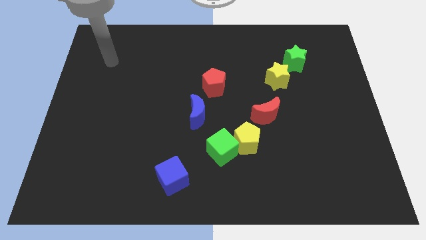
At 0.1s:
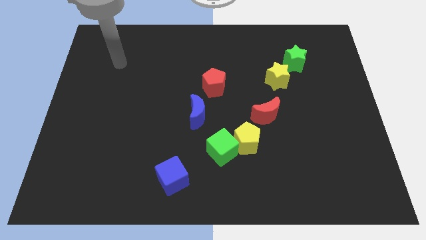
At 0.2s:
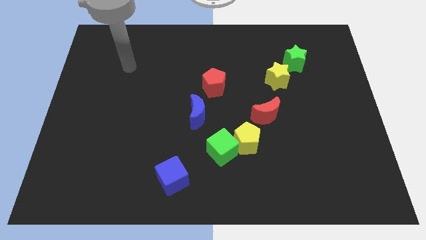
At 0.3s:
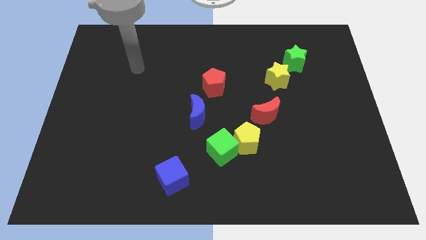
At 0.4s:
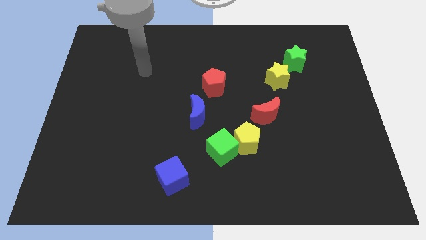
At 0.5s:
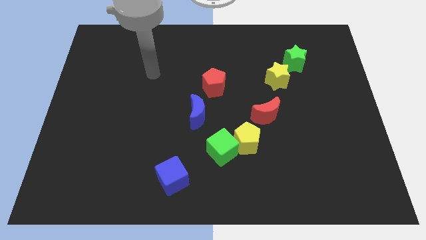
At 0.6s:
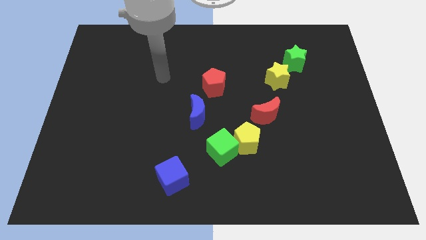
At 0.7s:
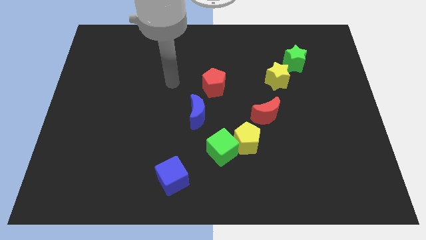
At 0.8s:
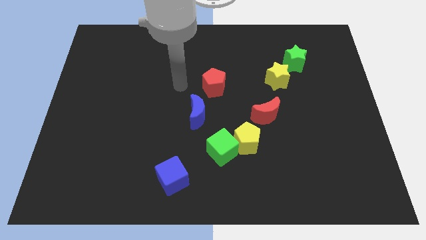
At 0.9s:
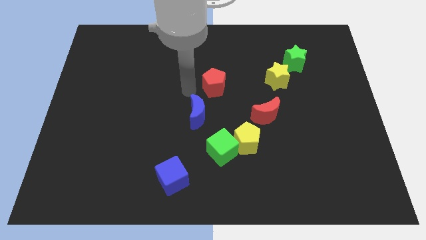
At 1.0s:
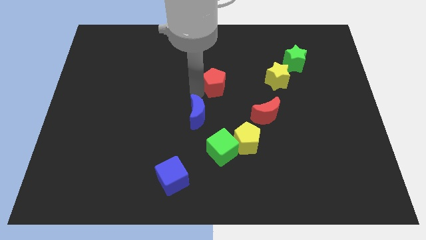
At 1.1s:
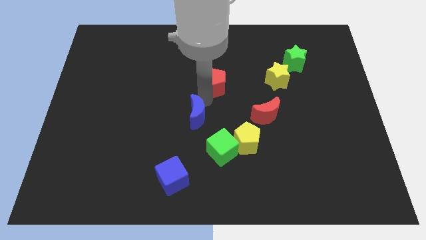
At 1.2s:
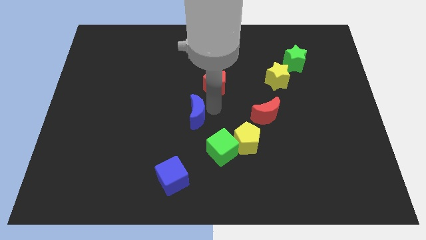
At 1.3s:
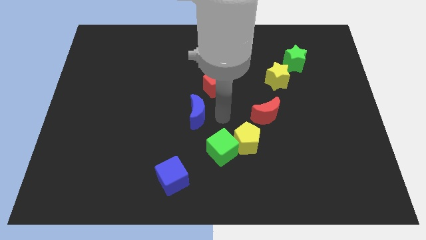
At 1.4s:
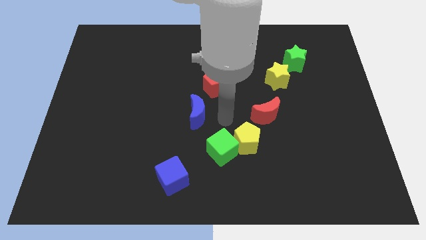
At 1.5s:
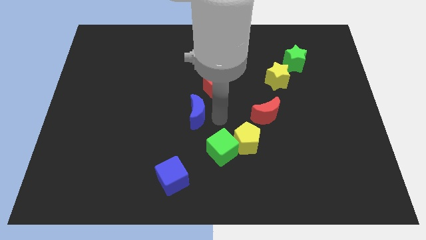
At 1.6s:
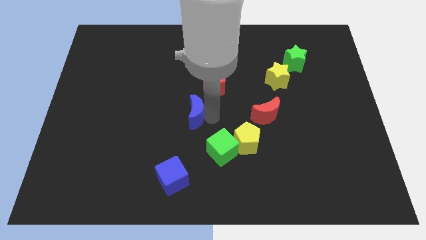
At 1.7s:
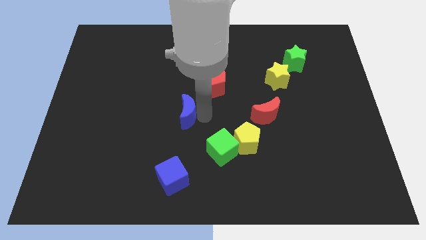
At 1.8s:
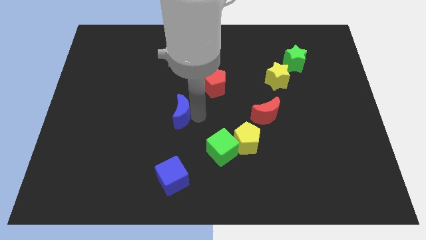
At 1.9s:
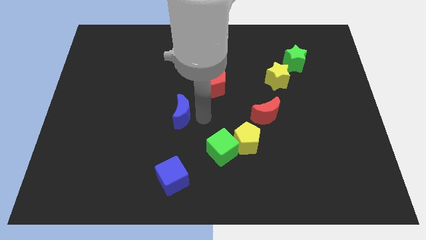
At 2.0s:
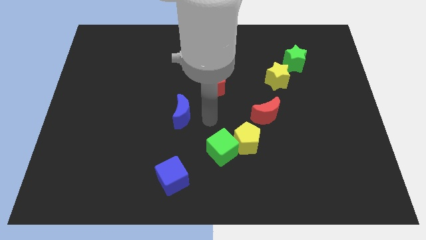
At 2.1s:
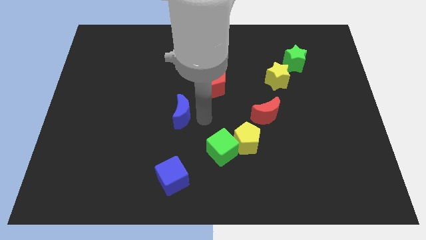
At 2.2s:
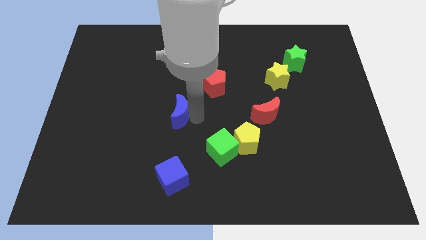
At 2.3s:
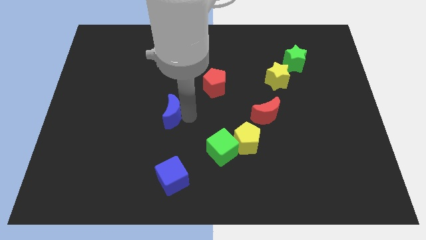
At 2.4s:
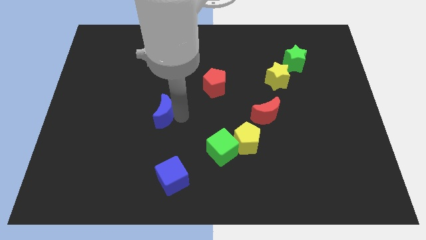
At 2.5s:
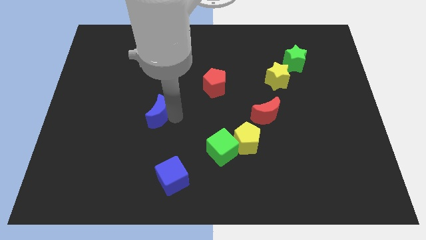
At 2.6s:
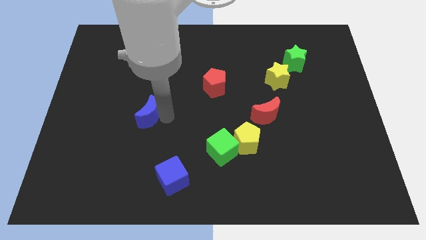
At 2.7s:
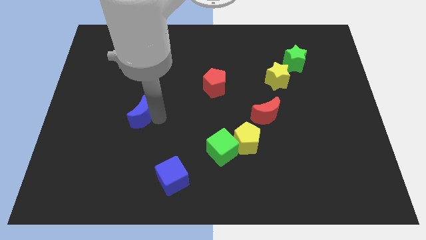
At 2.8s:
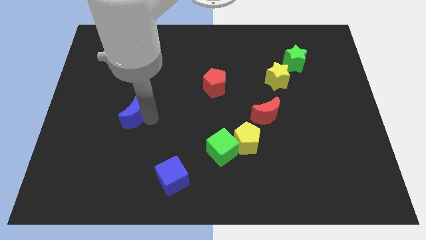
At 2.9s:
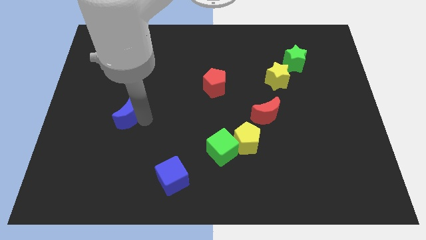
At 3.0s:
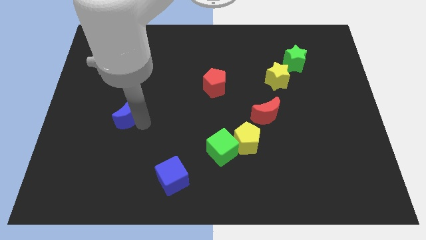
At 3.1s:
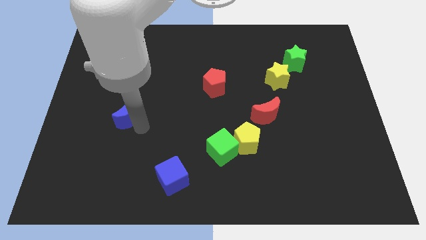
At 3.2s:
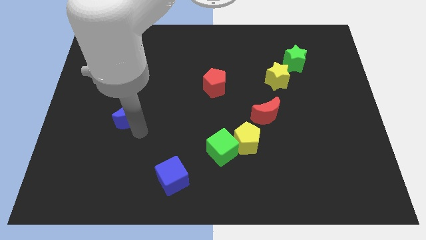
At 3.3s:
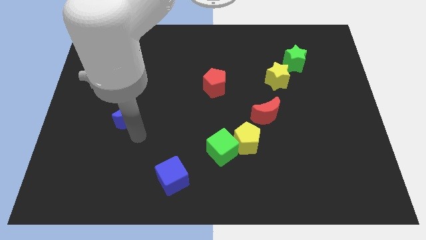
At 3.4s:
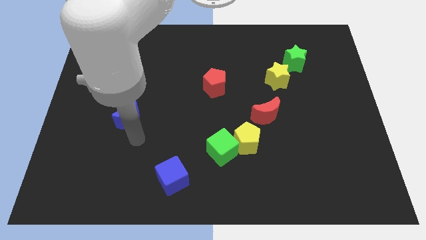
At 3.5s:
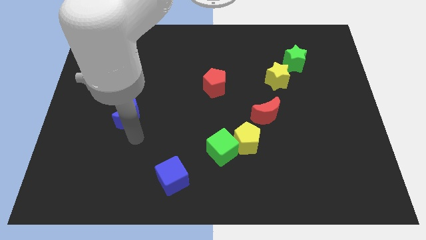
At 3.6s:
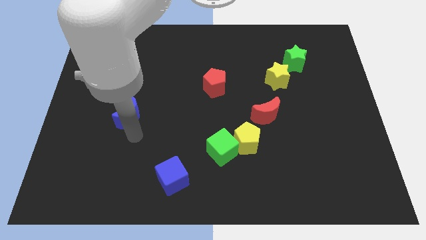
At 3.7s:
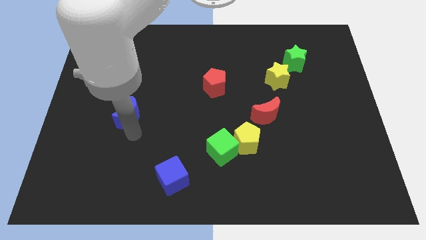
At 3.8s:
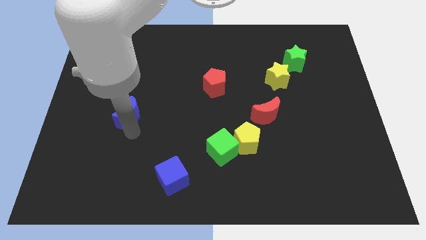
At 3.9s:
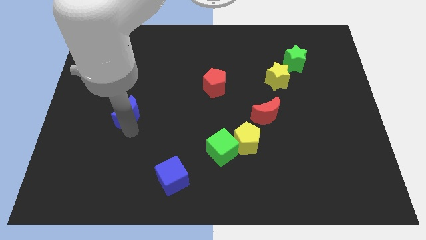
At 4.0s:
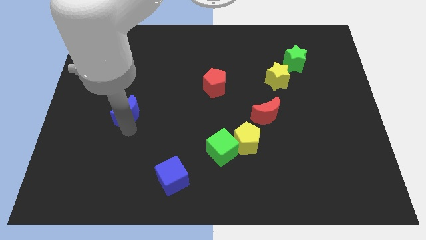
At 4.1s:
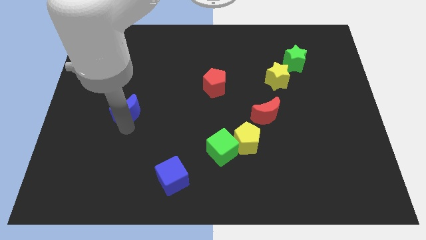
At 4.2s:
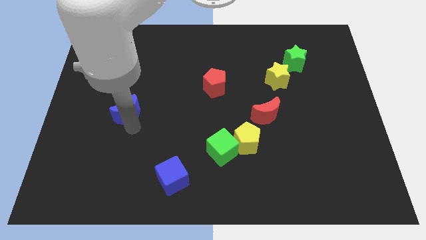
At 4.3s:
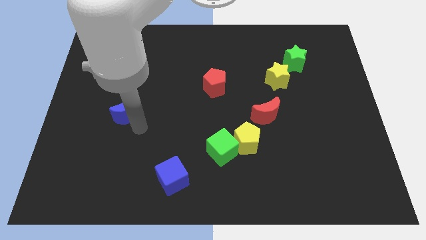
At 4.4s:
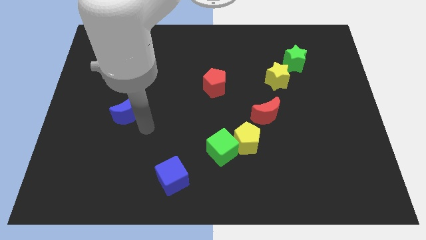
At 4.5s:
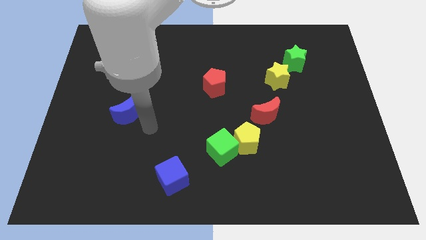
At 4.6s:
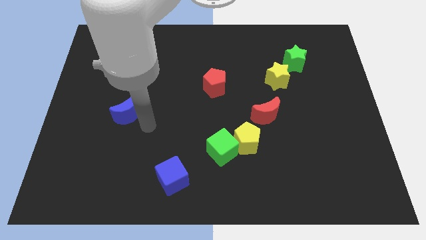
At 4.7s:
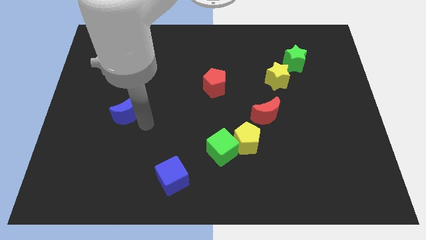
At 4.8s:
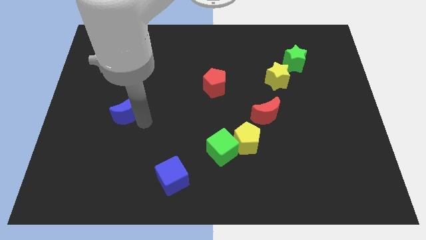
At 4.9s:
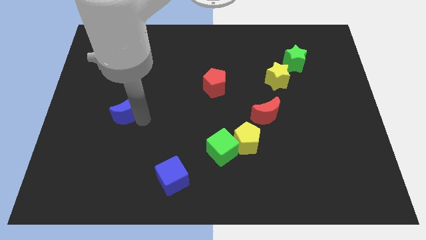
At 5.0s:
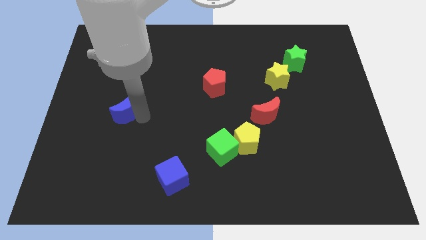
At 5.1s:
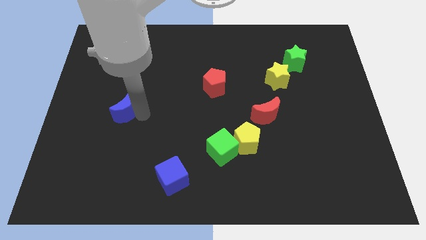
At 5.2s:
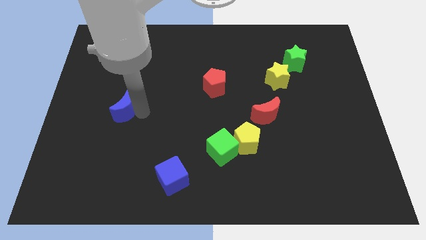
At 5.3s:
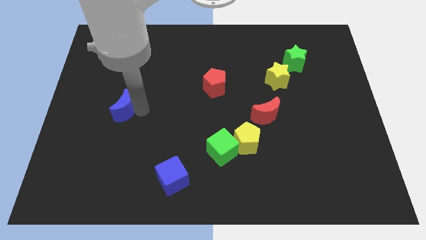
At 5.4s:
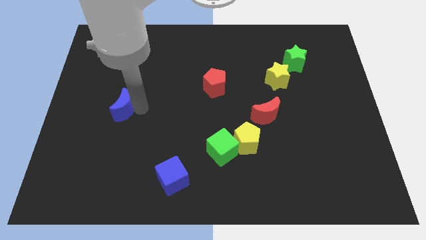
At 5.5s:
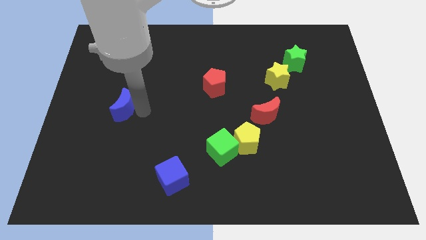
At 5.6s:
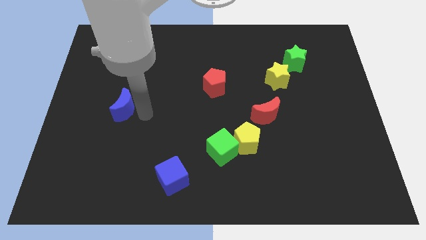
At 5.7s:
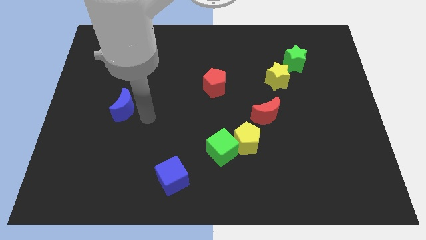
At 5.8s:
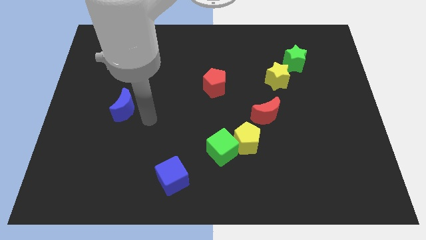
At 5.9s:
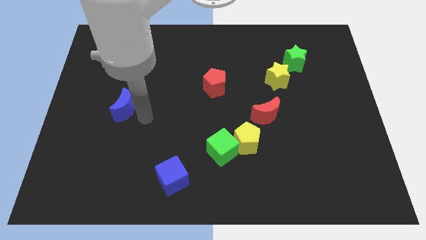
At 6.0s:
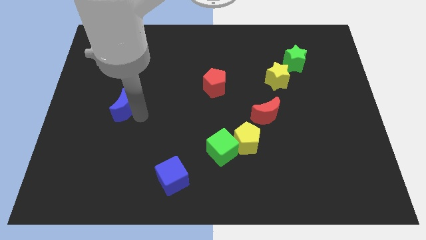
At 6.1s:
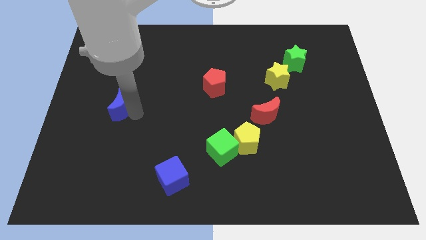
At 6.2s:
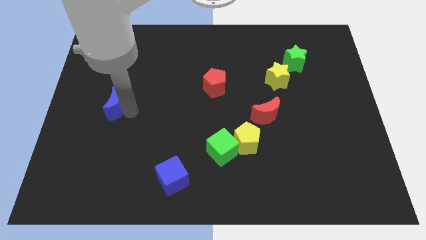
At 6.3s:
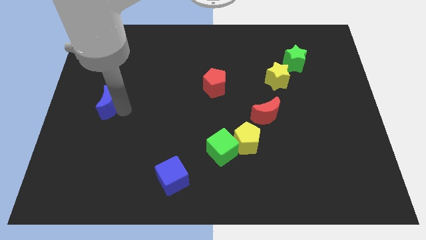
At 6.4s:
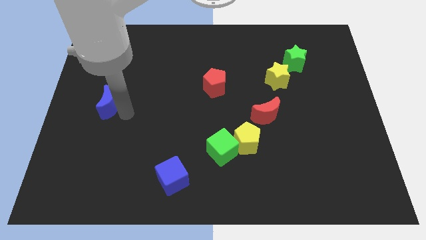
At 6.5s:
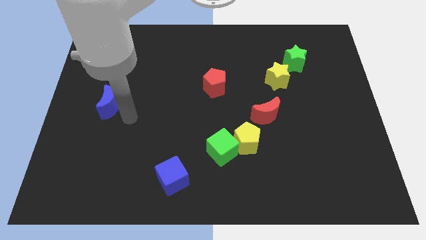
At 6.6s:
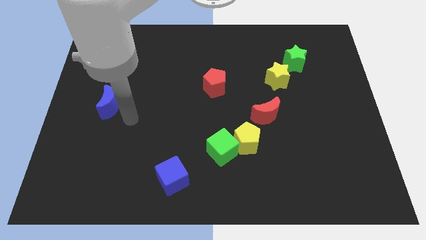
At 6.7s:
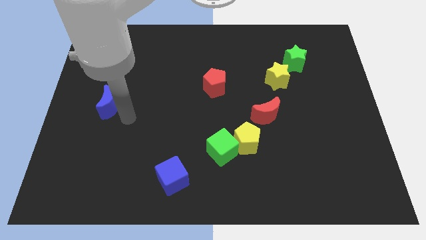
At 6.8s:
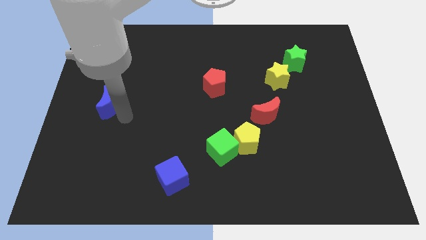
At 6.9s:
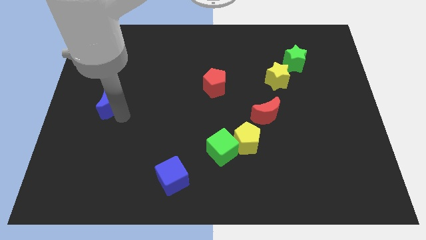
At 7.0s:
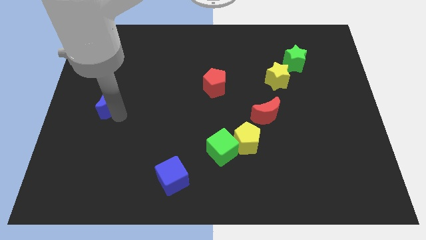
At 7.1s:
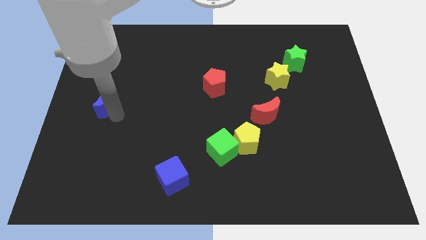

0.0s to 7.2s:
put the blue moon to the left side
